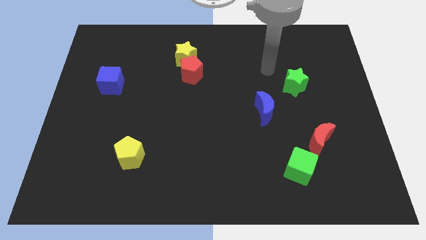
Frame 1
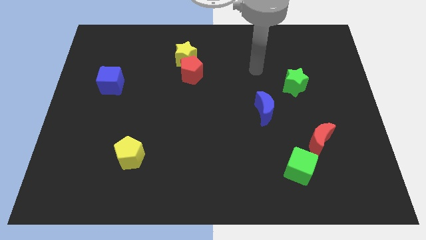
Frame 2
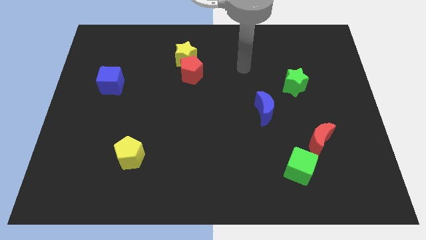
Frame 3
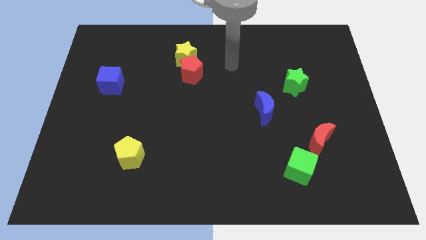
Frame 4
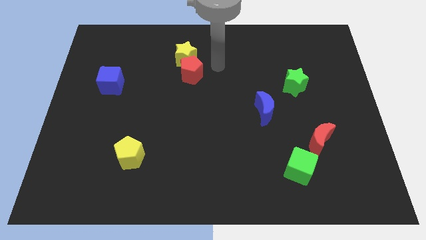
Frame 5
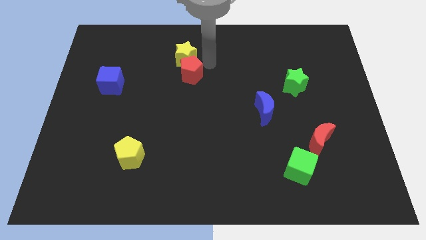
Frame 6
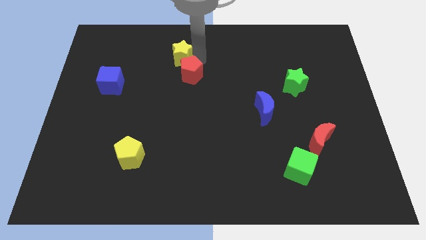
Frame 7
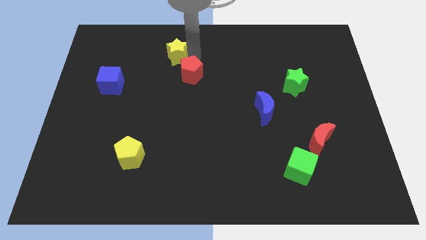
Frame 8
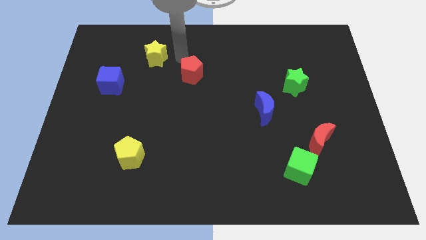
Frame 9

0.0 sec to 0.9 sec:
pull the red pentagon apart from the yellow star

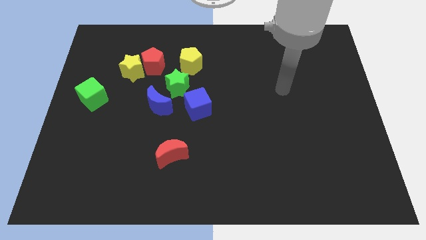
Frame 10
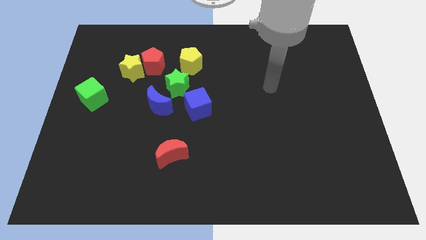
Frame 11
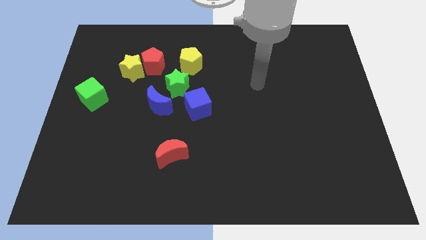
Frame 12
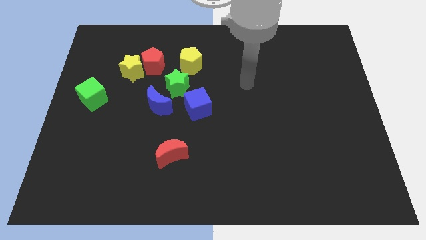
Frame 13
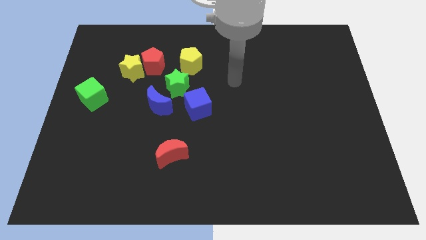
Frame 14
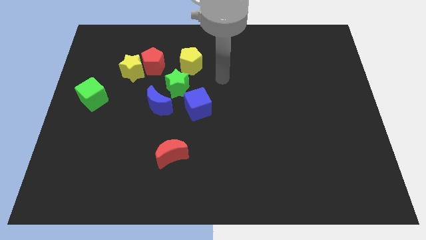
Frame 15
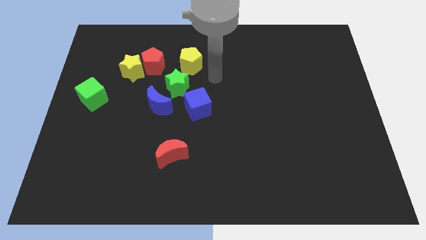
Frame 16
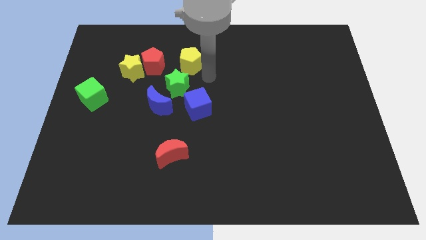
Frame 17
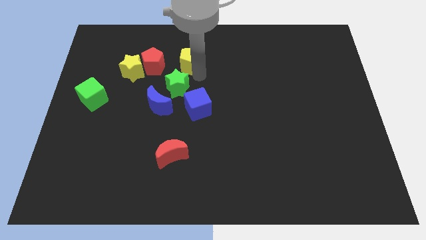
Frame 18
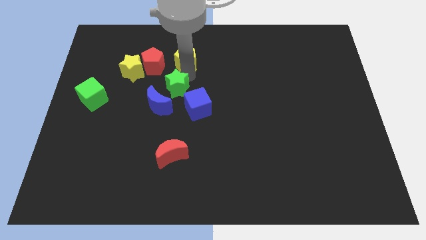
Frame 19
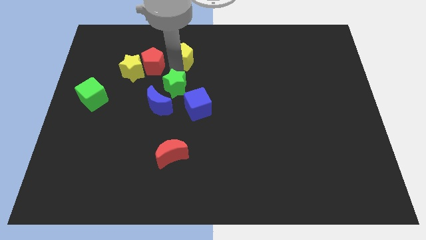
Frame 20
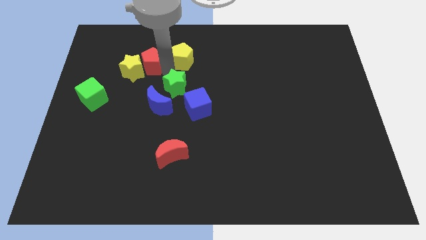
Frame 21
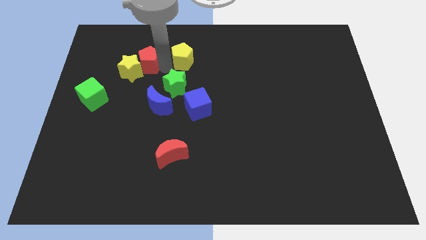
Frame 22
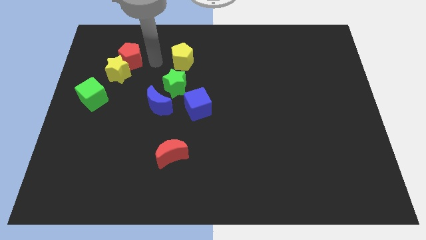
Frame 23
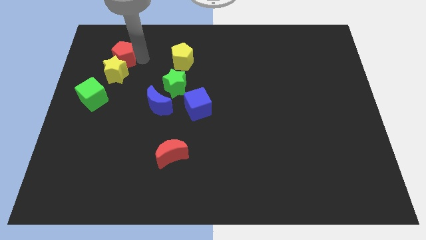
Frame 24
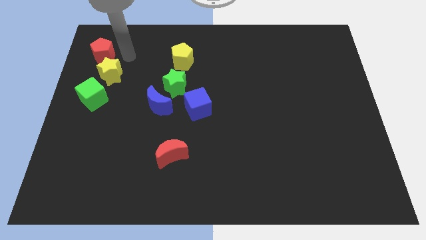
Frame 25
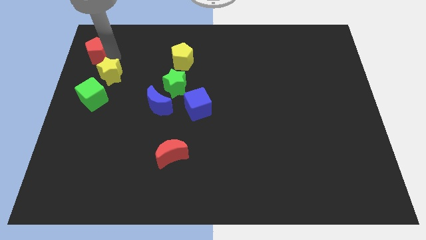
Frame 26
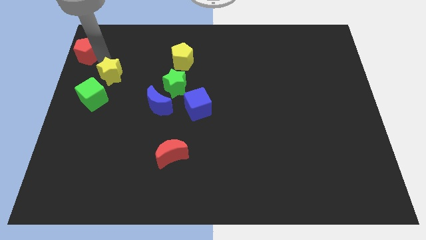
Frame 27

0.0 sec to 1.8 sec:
pull the yellow star apart from the red pentagon

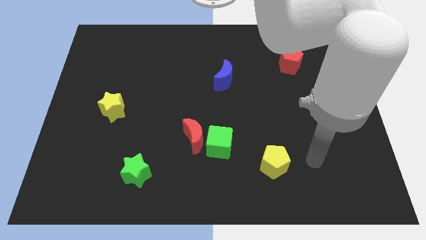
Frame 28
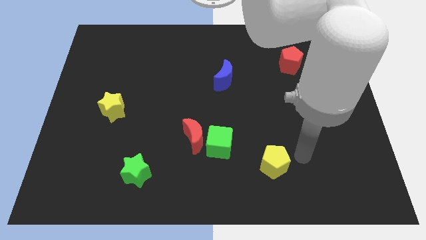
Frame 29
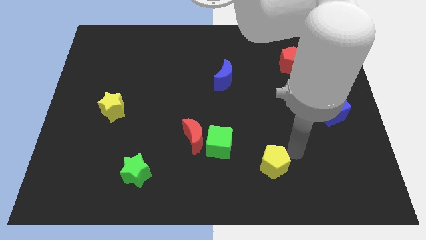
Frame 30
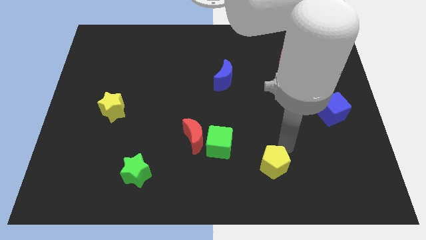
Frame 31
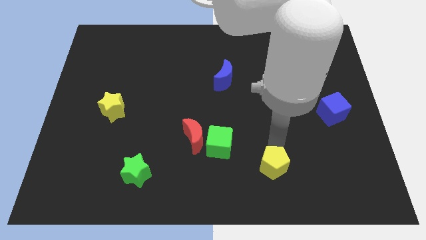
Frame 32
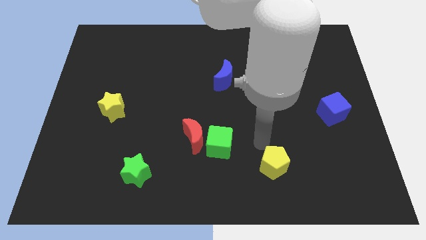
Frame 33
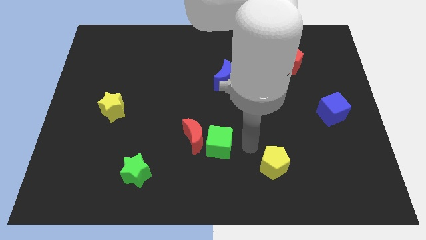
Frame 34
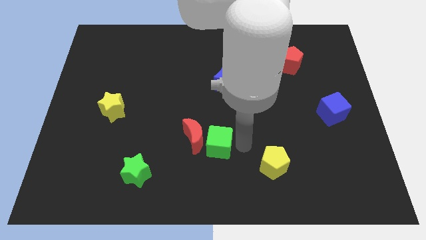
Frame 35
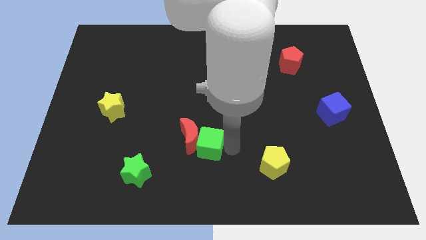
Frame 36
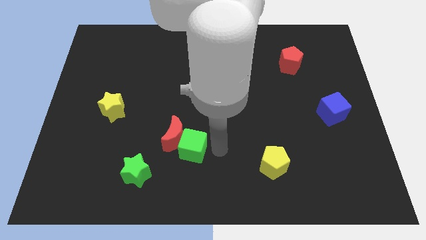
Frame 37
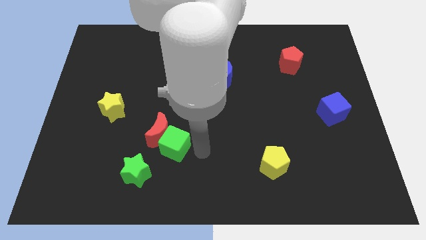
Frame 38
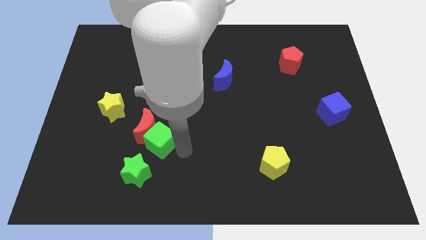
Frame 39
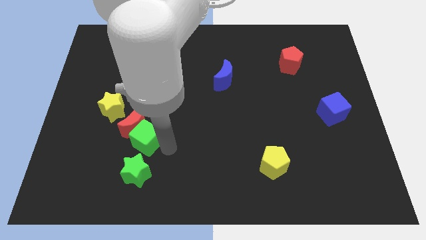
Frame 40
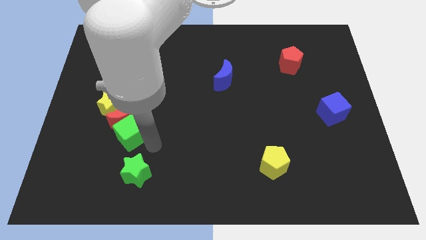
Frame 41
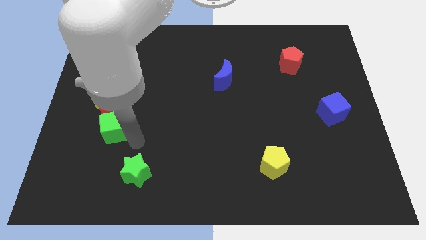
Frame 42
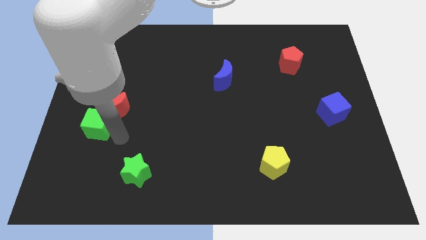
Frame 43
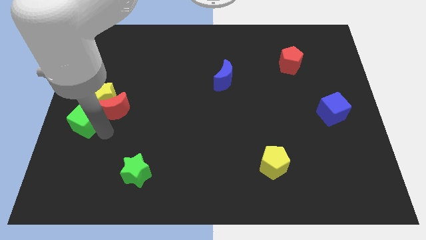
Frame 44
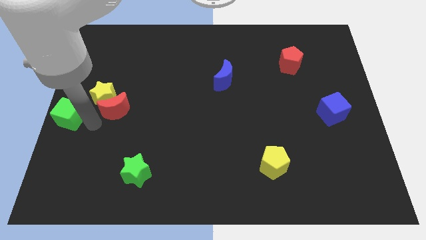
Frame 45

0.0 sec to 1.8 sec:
move the red moon away from the green cube

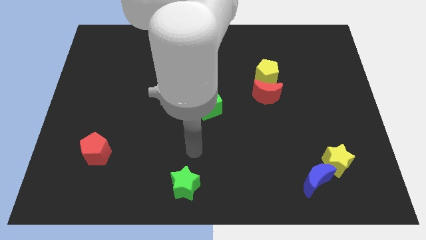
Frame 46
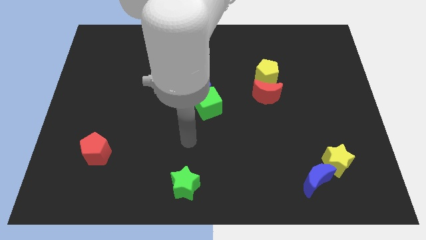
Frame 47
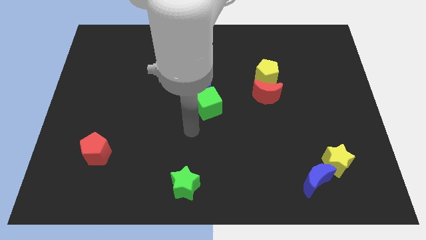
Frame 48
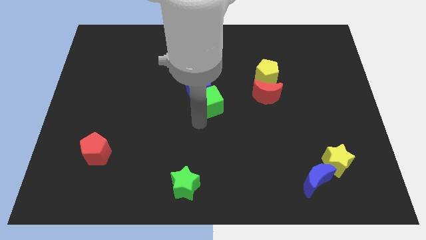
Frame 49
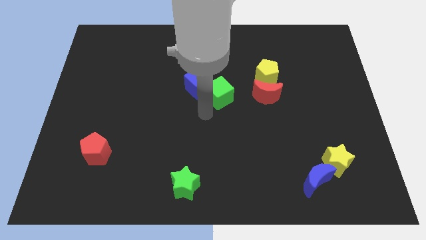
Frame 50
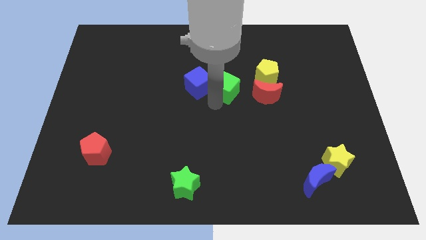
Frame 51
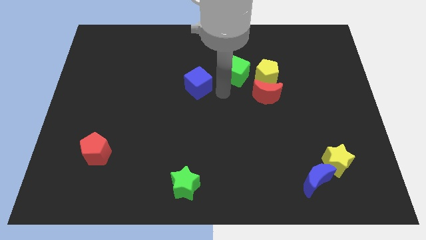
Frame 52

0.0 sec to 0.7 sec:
pull the blue cube apart from the green cube

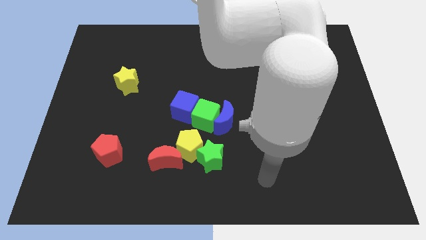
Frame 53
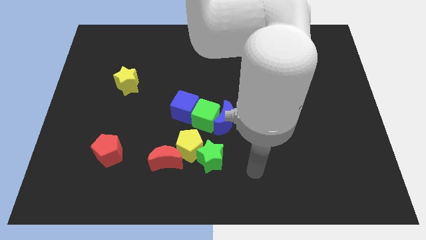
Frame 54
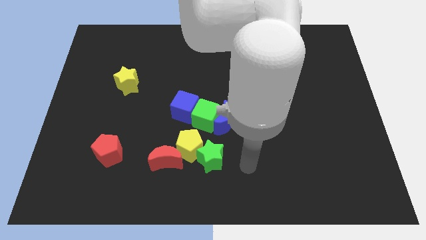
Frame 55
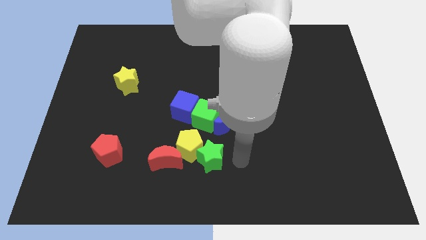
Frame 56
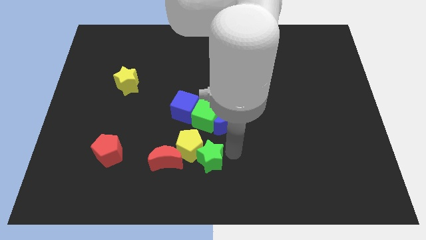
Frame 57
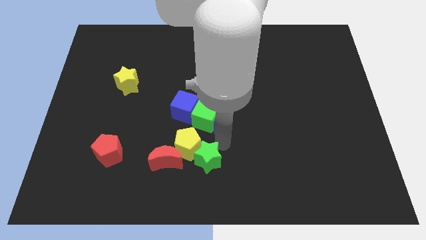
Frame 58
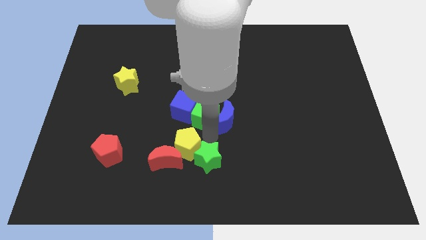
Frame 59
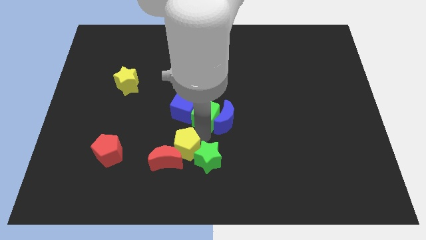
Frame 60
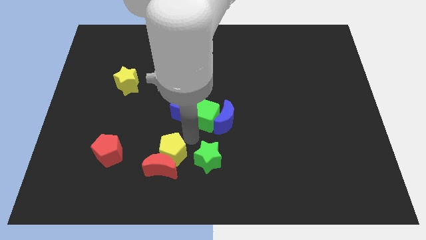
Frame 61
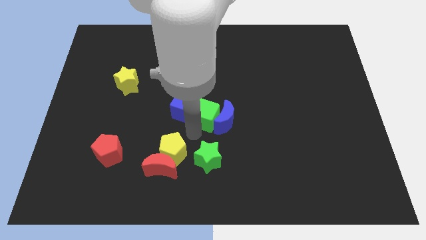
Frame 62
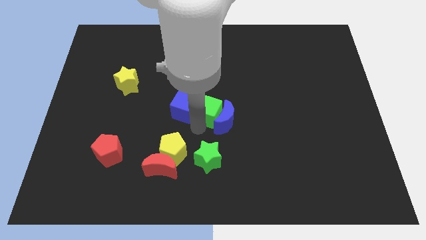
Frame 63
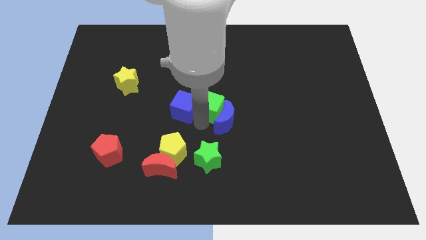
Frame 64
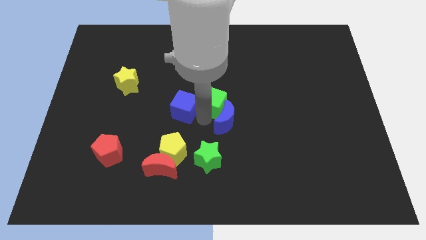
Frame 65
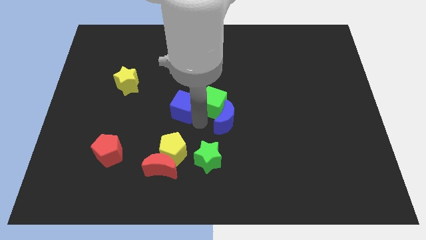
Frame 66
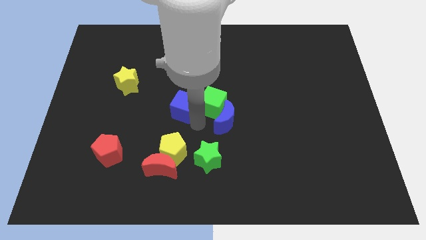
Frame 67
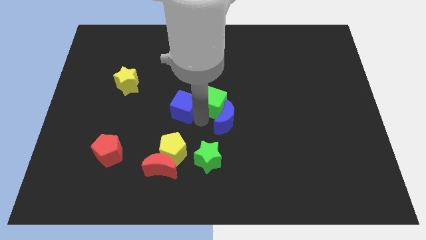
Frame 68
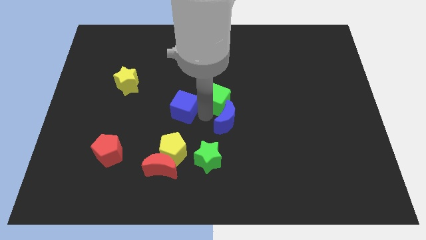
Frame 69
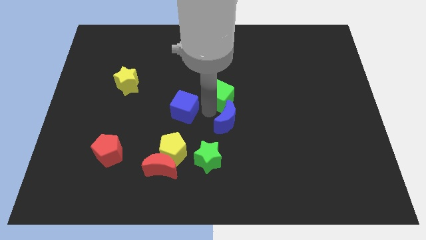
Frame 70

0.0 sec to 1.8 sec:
separate the green cube from the blue moon, blue cube, and yellow pentagon

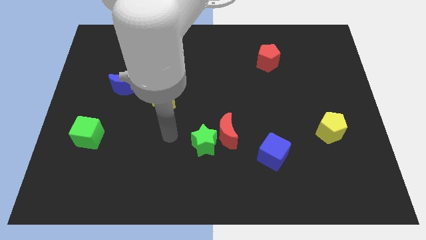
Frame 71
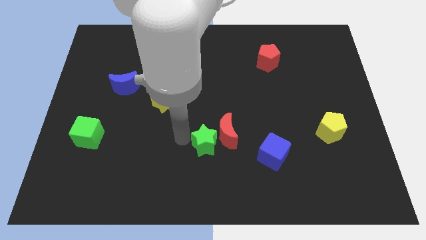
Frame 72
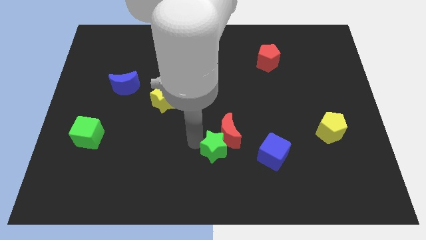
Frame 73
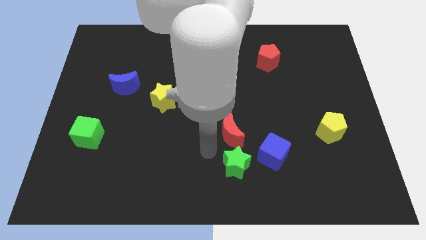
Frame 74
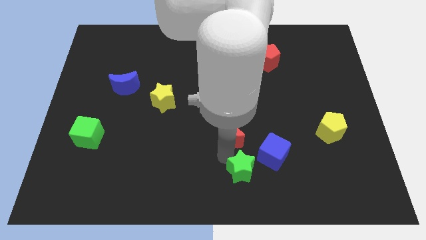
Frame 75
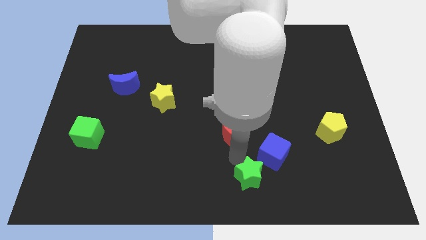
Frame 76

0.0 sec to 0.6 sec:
move the red moon away from the green star

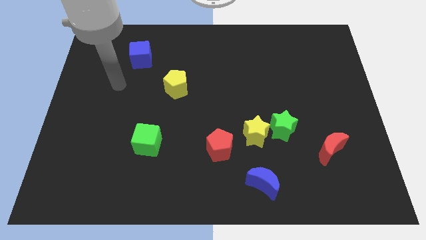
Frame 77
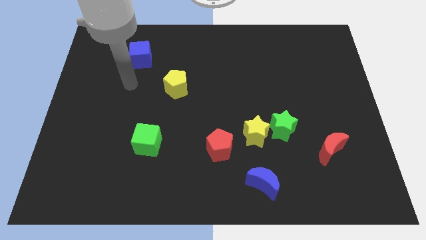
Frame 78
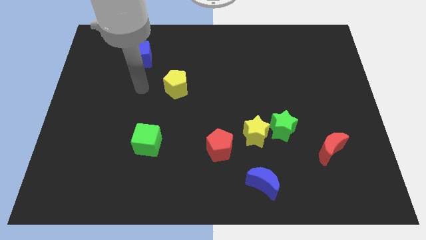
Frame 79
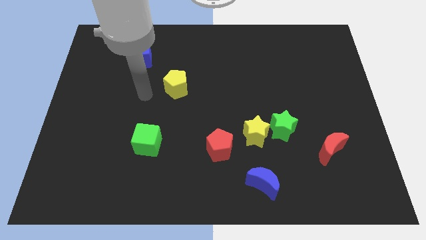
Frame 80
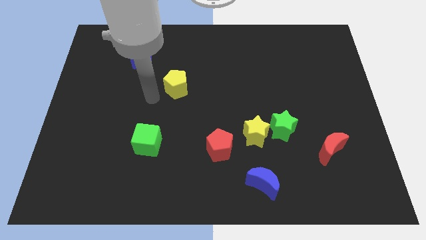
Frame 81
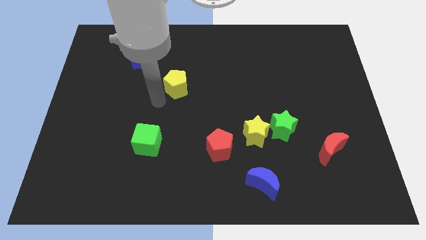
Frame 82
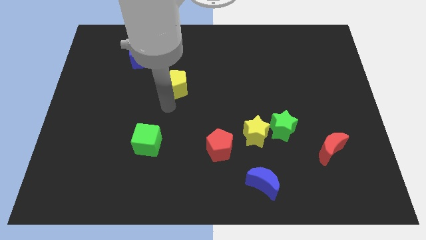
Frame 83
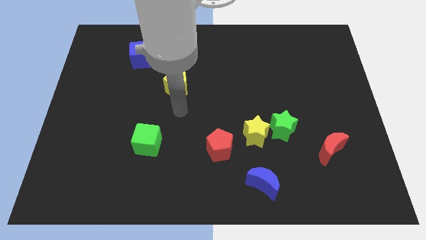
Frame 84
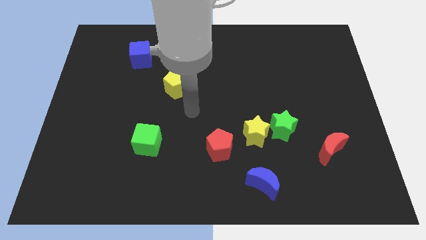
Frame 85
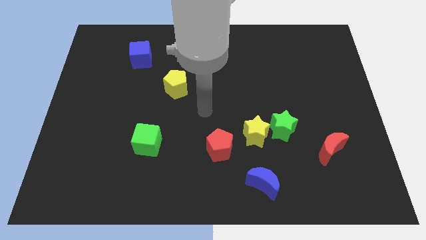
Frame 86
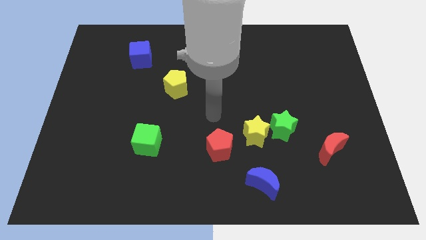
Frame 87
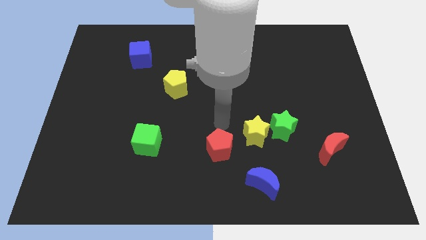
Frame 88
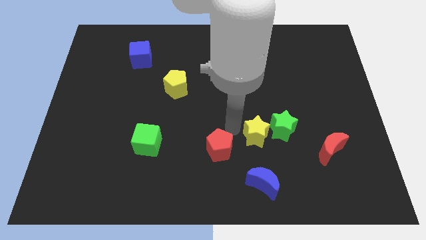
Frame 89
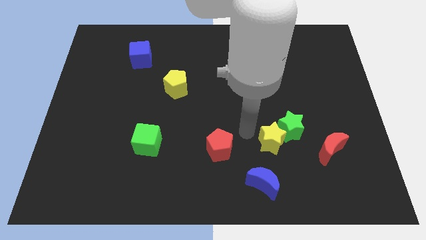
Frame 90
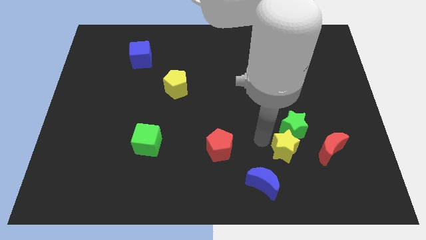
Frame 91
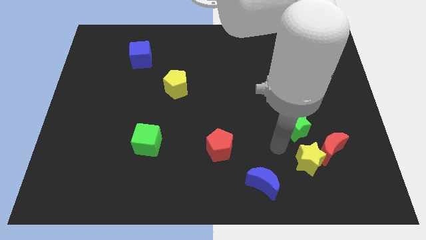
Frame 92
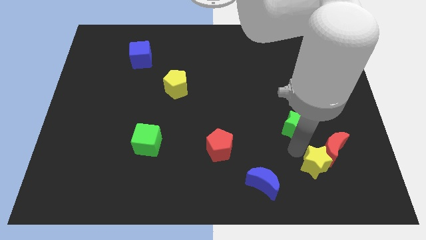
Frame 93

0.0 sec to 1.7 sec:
separate the green star from the yellow star
